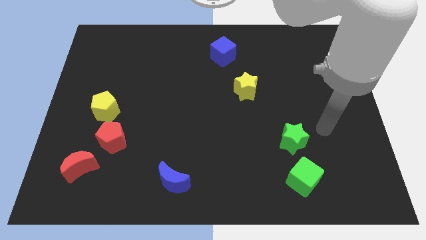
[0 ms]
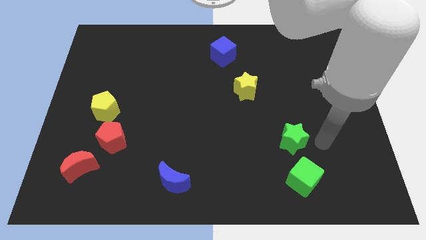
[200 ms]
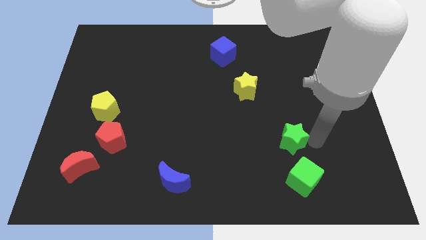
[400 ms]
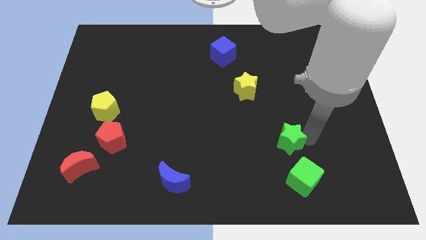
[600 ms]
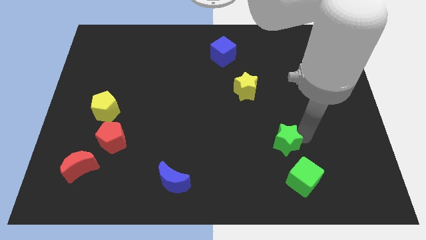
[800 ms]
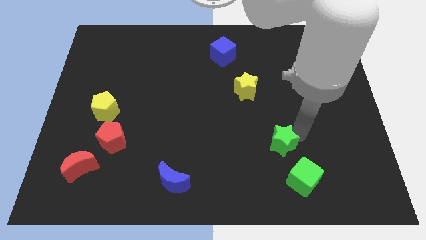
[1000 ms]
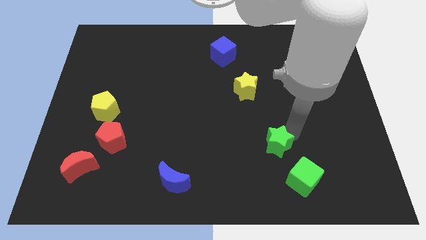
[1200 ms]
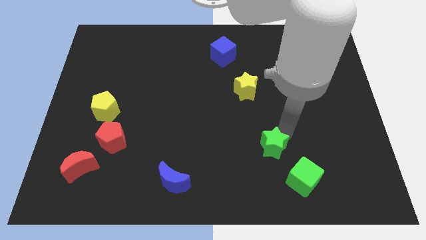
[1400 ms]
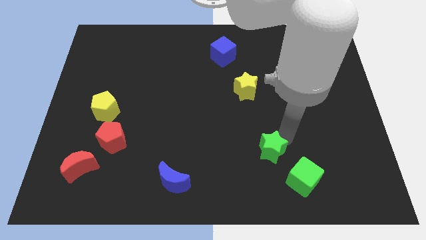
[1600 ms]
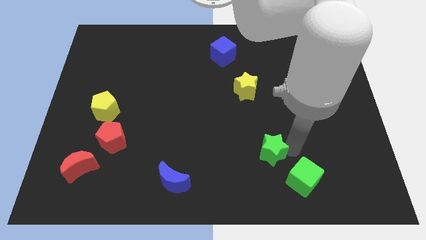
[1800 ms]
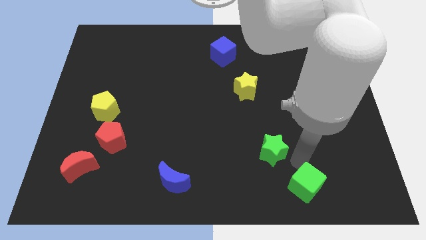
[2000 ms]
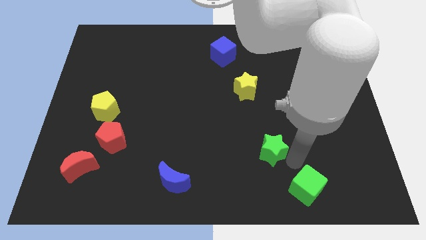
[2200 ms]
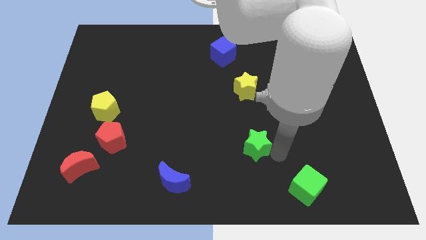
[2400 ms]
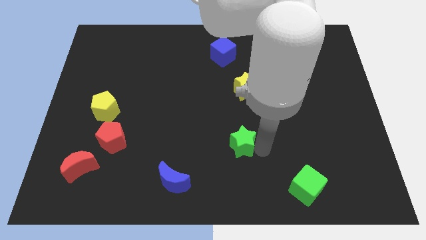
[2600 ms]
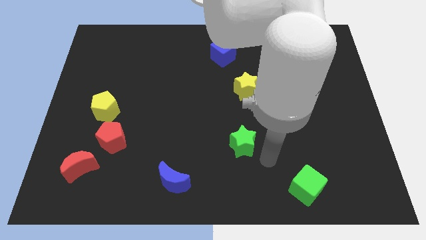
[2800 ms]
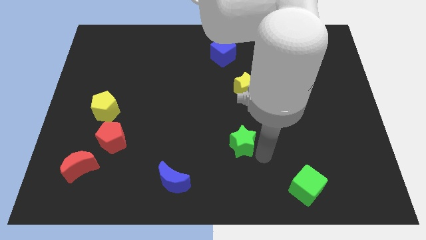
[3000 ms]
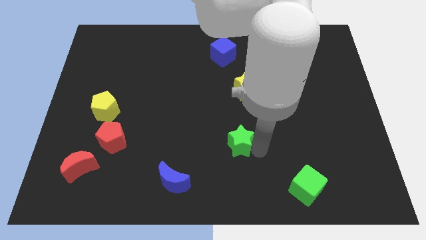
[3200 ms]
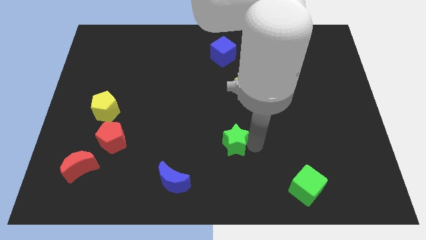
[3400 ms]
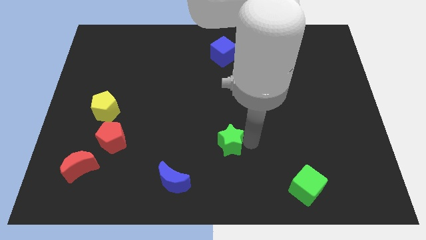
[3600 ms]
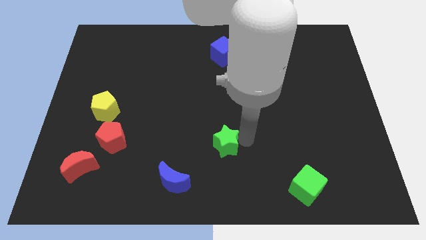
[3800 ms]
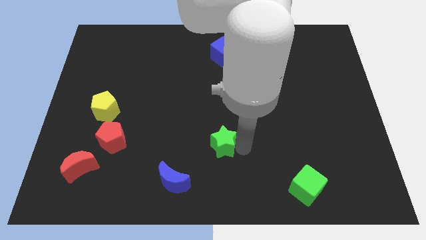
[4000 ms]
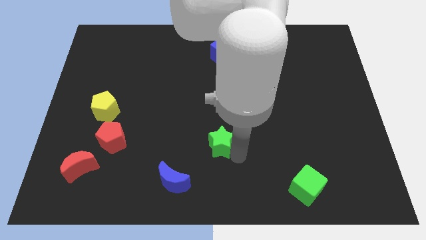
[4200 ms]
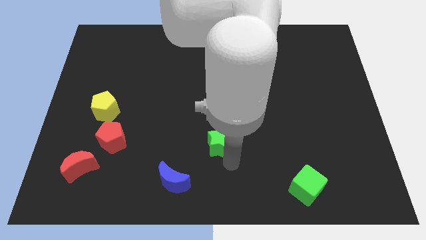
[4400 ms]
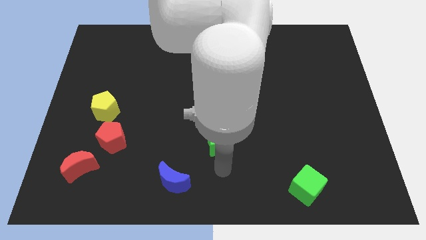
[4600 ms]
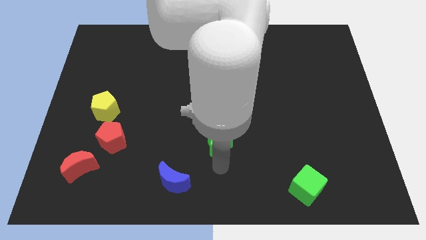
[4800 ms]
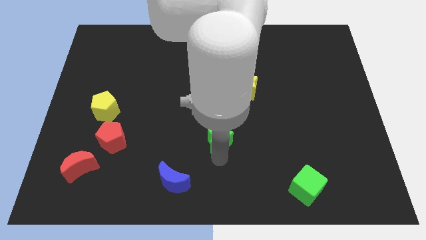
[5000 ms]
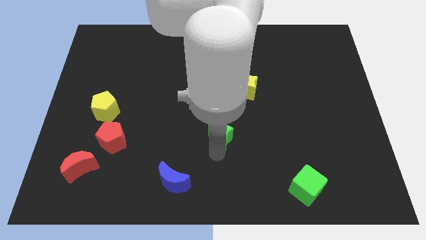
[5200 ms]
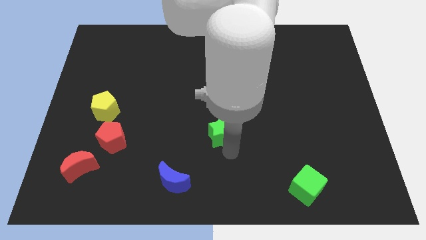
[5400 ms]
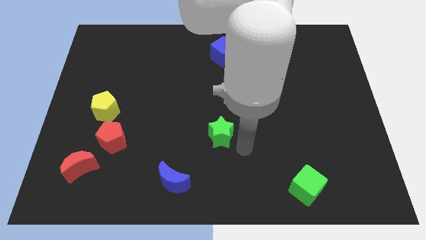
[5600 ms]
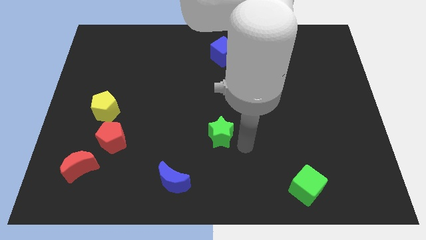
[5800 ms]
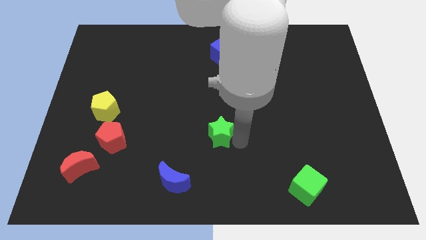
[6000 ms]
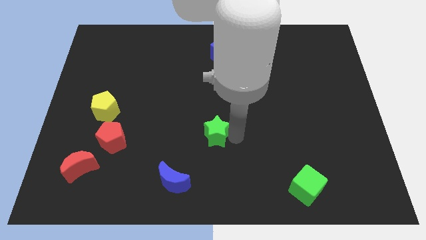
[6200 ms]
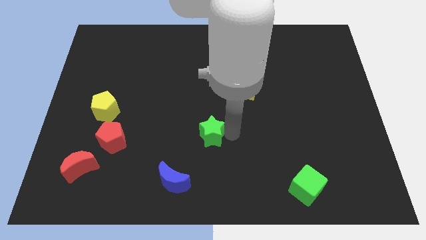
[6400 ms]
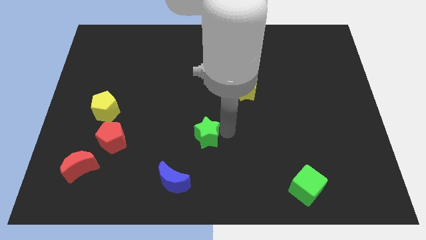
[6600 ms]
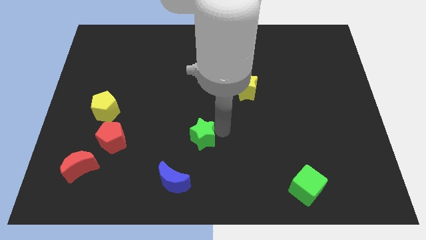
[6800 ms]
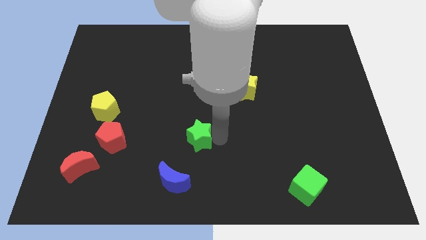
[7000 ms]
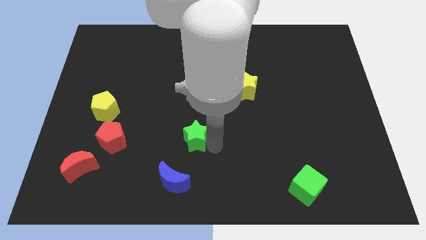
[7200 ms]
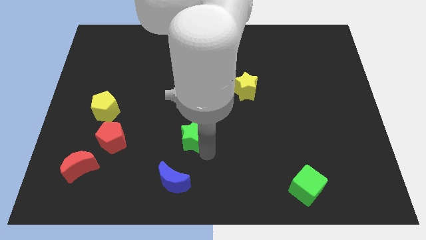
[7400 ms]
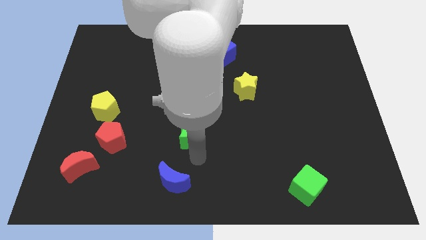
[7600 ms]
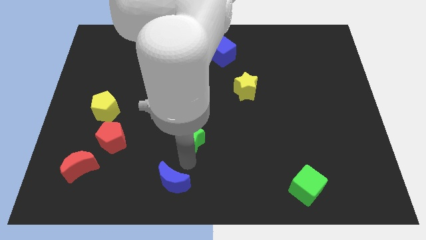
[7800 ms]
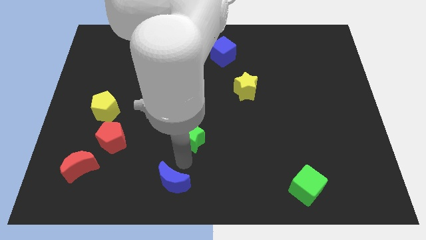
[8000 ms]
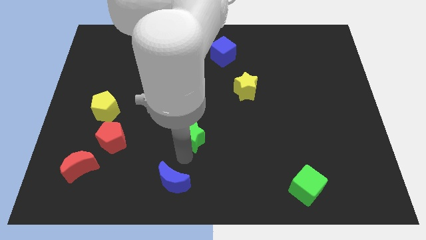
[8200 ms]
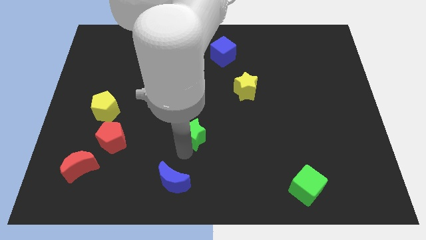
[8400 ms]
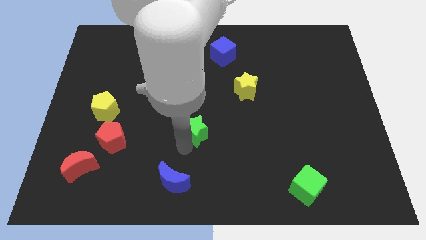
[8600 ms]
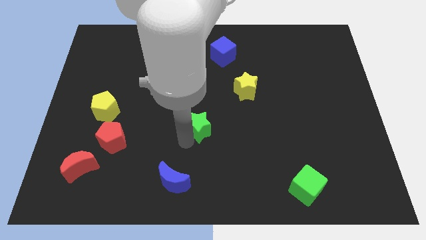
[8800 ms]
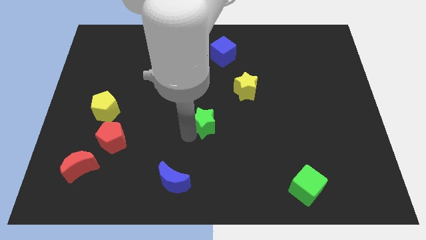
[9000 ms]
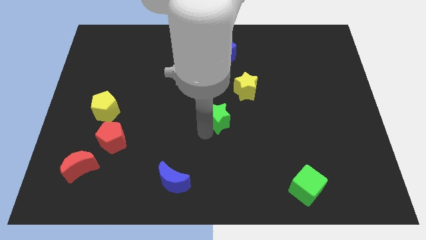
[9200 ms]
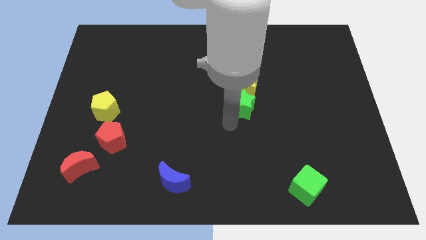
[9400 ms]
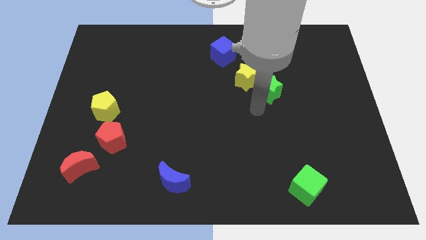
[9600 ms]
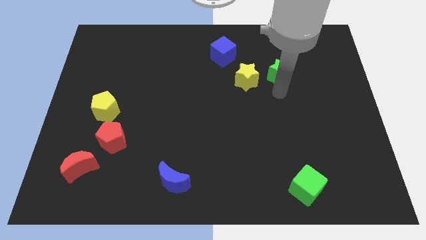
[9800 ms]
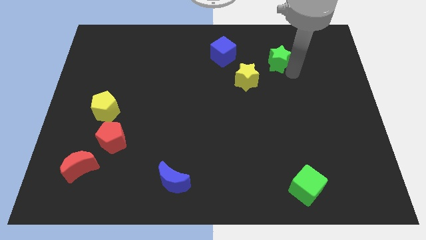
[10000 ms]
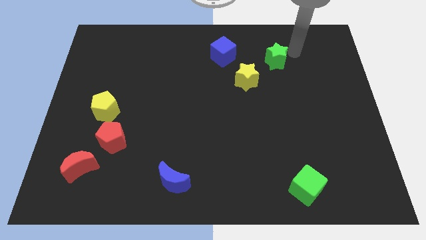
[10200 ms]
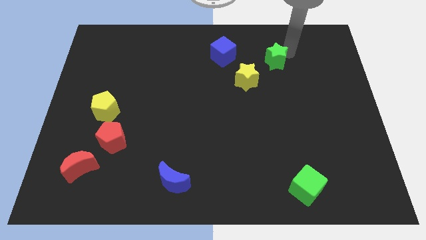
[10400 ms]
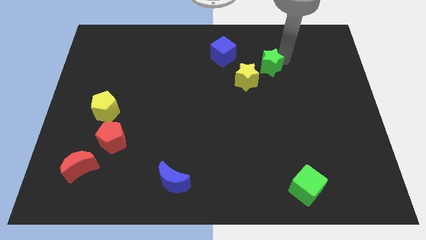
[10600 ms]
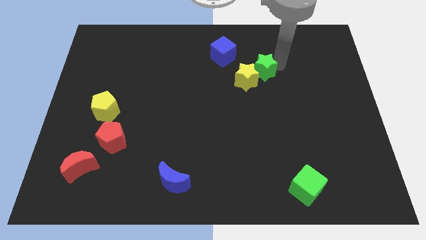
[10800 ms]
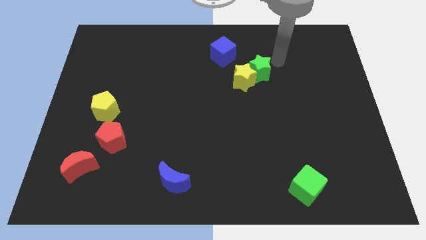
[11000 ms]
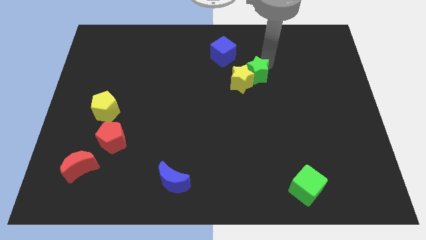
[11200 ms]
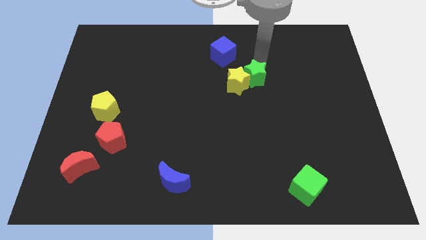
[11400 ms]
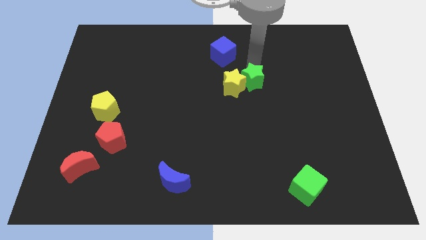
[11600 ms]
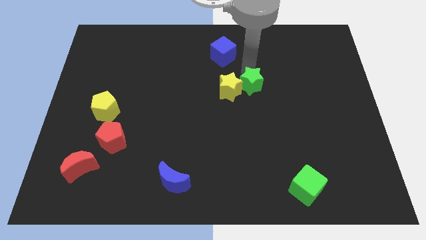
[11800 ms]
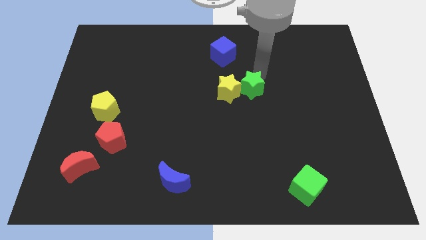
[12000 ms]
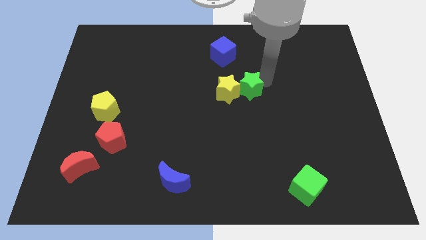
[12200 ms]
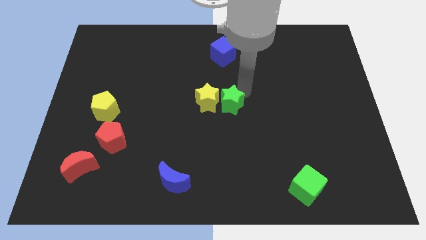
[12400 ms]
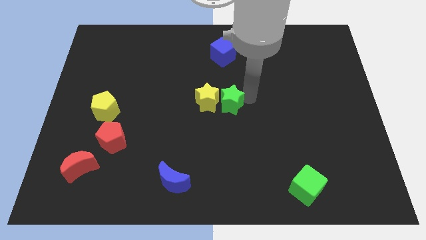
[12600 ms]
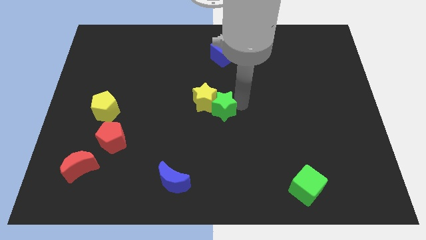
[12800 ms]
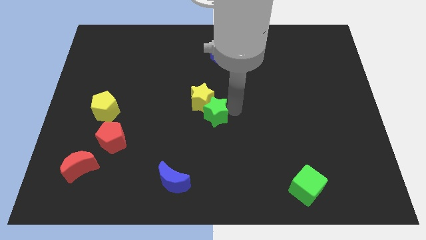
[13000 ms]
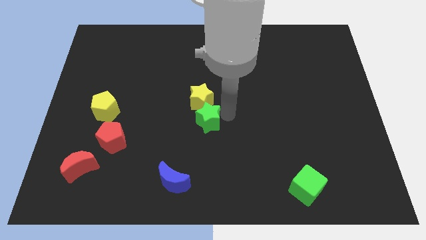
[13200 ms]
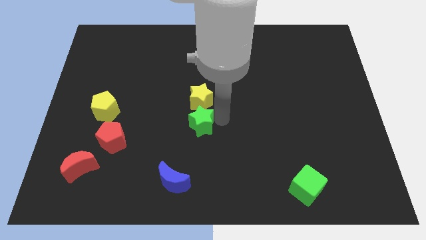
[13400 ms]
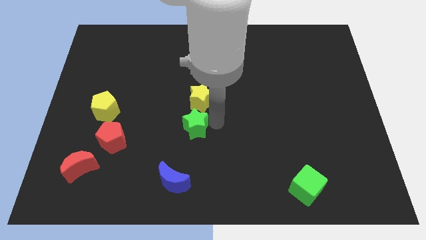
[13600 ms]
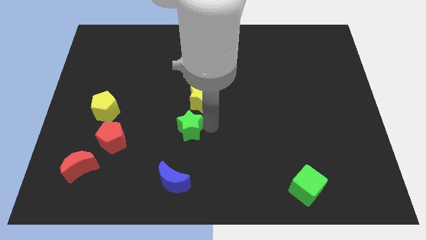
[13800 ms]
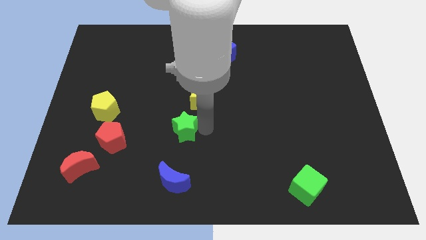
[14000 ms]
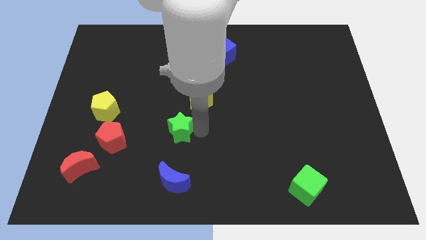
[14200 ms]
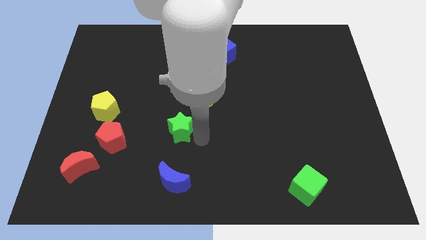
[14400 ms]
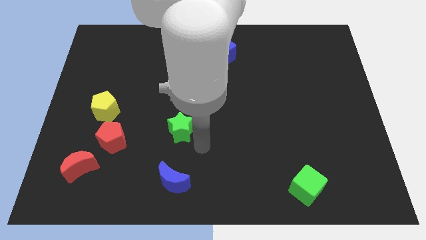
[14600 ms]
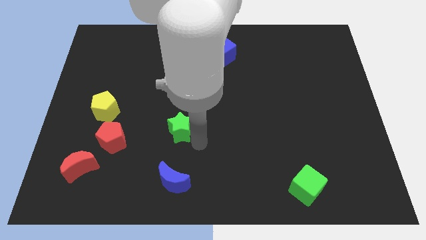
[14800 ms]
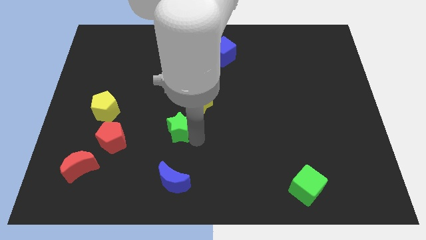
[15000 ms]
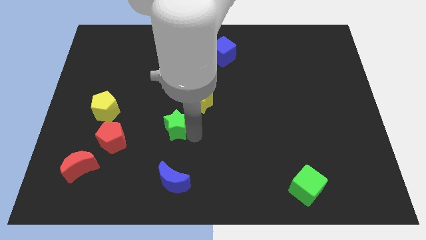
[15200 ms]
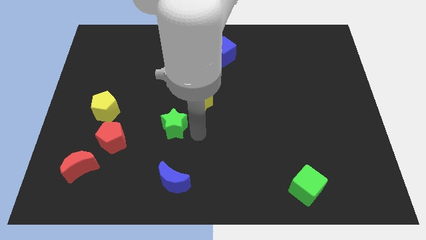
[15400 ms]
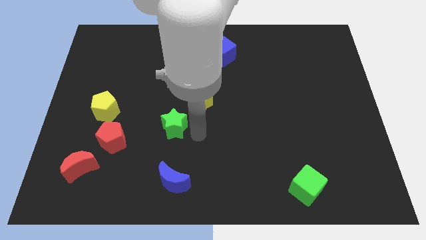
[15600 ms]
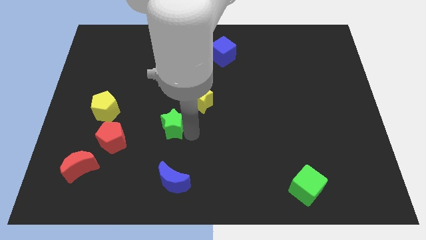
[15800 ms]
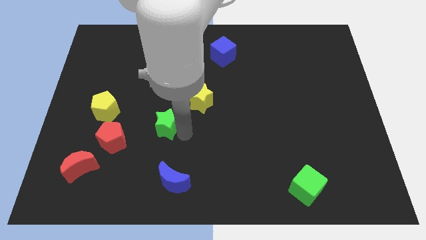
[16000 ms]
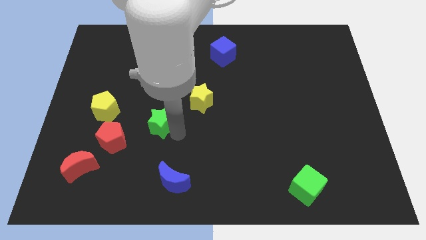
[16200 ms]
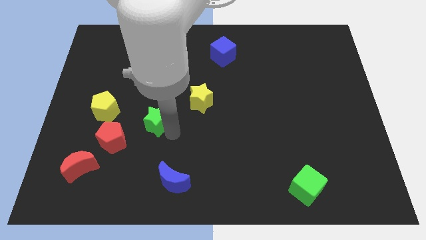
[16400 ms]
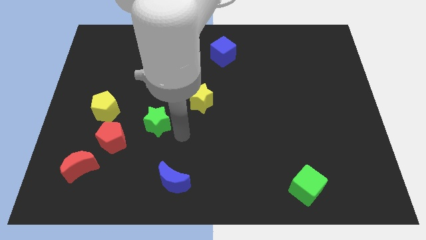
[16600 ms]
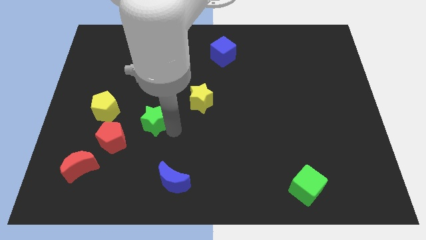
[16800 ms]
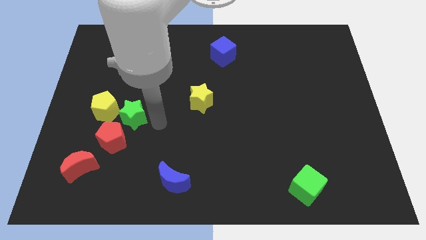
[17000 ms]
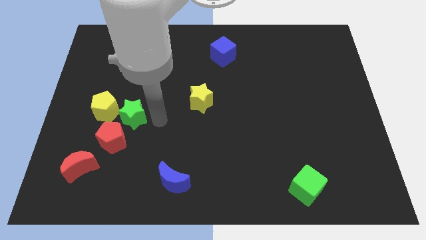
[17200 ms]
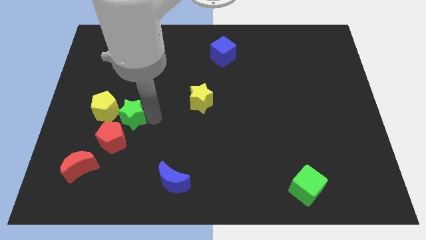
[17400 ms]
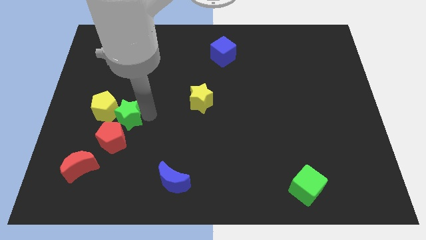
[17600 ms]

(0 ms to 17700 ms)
slide the green star close to the yellow pentagon
